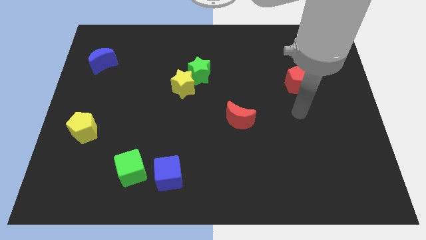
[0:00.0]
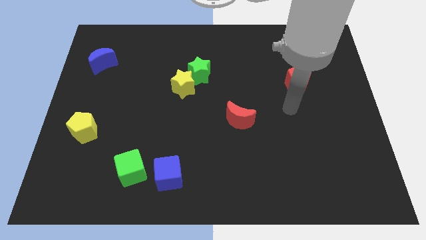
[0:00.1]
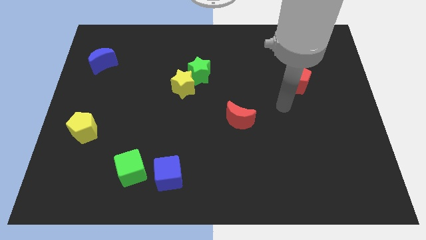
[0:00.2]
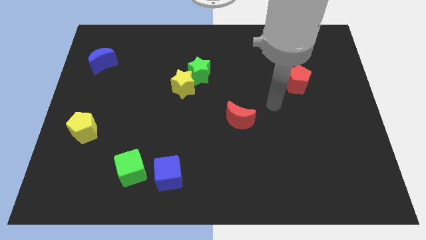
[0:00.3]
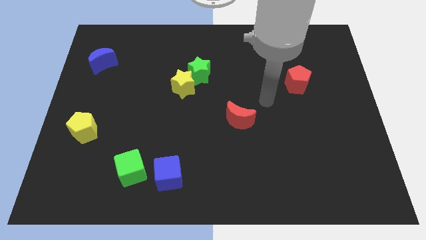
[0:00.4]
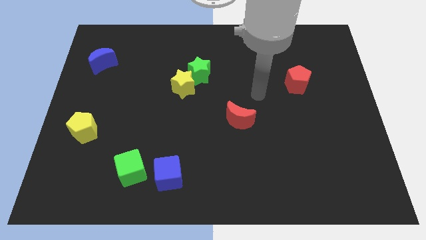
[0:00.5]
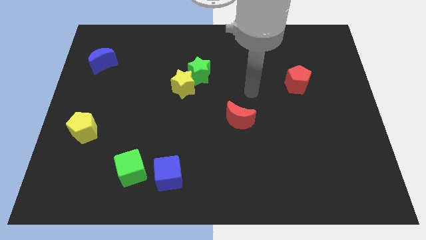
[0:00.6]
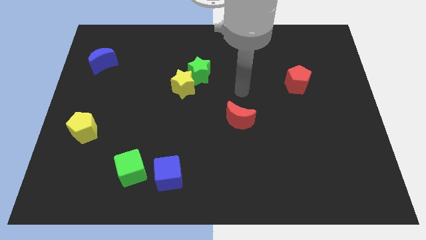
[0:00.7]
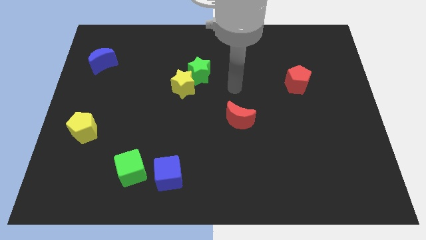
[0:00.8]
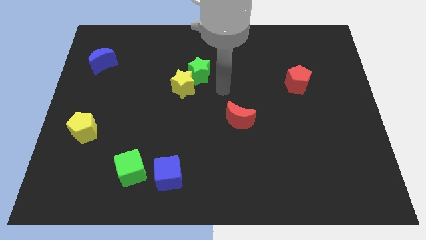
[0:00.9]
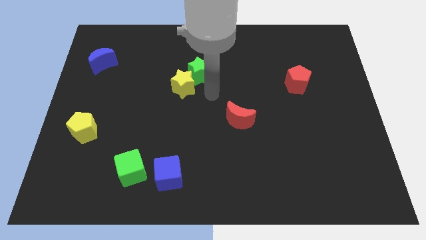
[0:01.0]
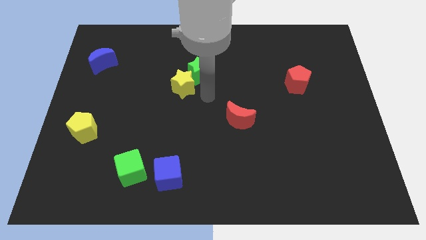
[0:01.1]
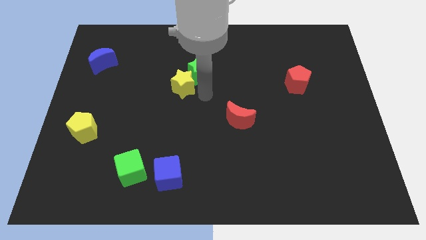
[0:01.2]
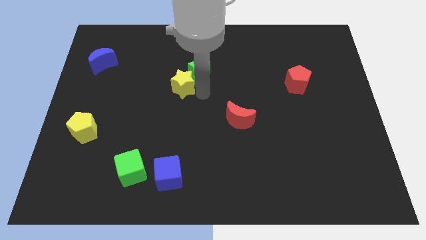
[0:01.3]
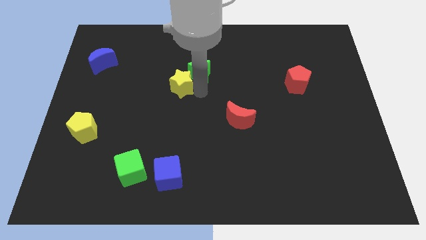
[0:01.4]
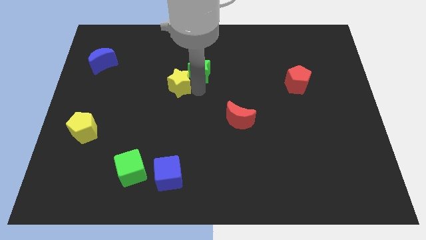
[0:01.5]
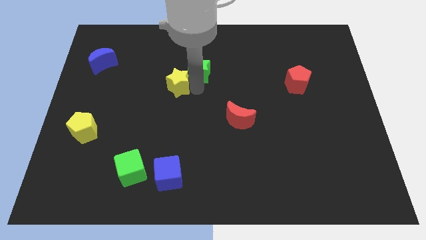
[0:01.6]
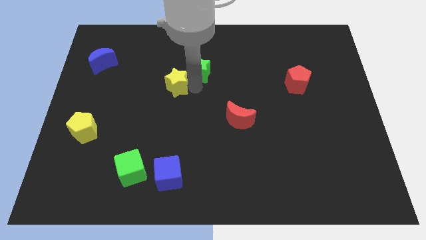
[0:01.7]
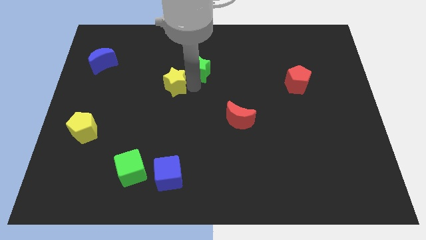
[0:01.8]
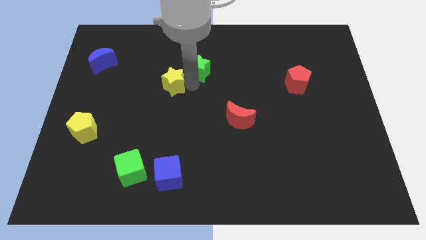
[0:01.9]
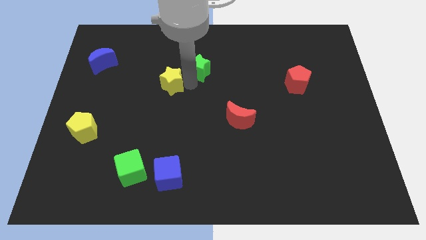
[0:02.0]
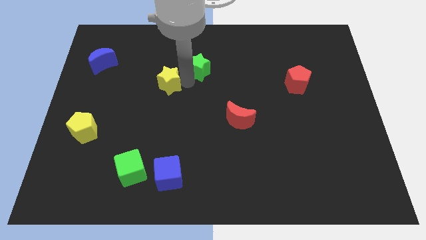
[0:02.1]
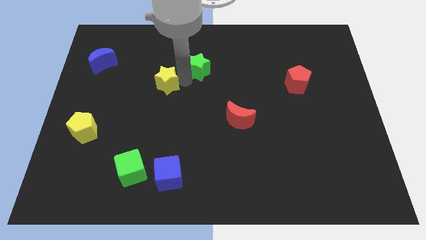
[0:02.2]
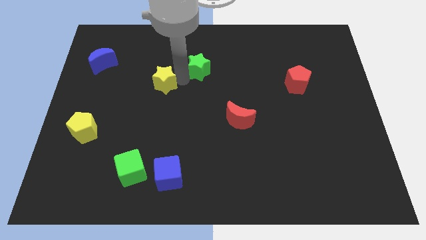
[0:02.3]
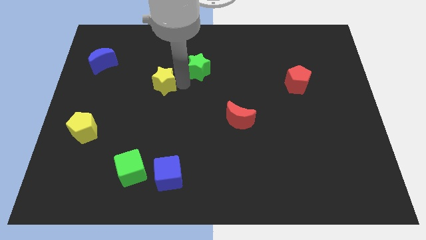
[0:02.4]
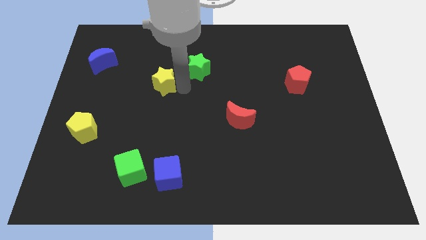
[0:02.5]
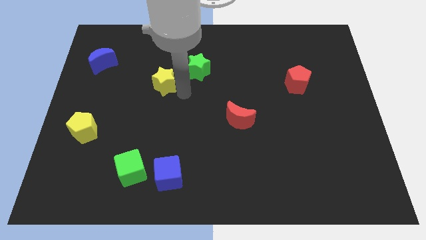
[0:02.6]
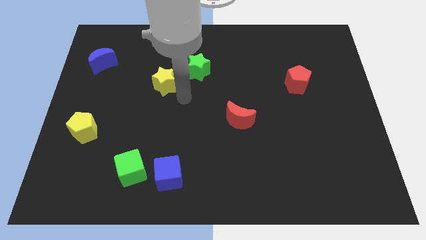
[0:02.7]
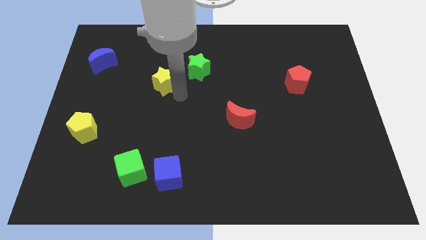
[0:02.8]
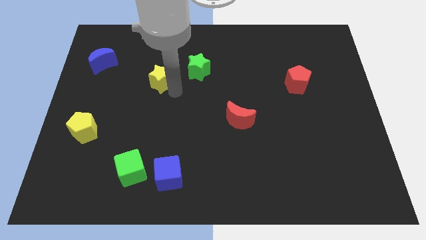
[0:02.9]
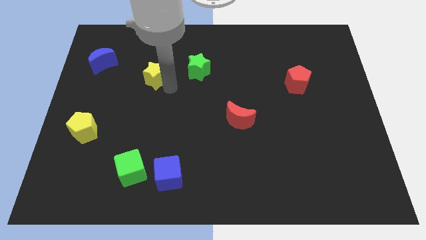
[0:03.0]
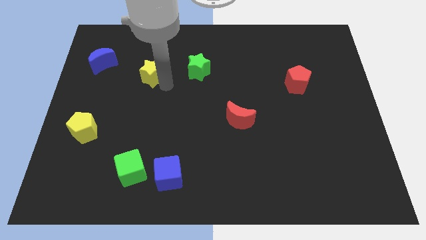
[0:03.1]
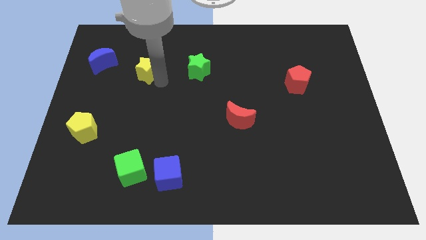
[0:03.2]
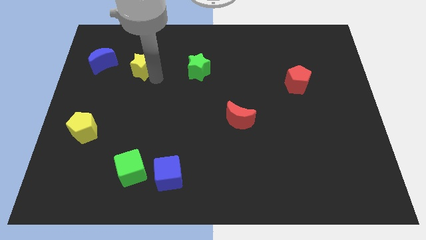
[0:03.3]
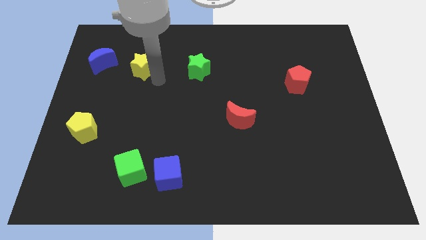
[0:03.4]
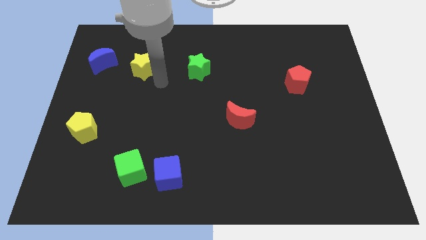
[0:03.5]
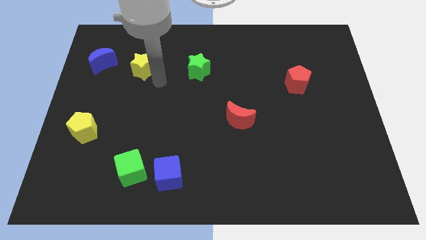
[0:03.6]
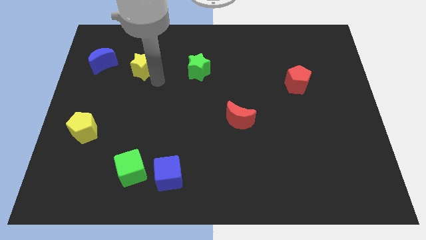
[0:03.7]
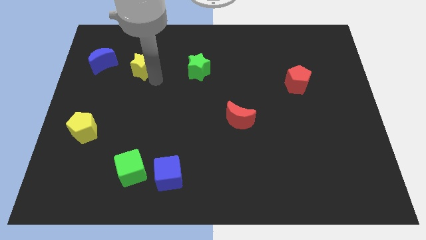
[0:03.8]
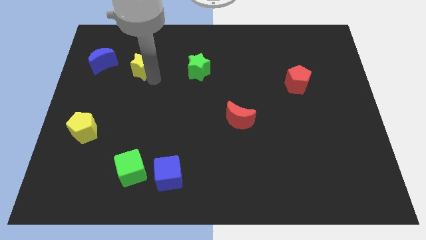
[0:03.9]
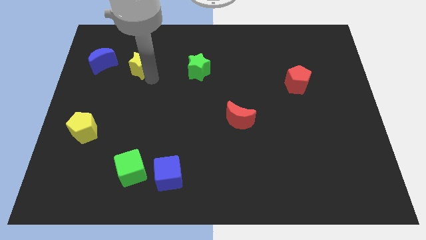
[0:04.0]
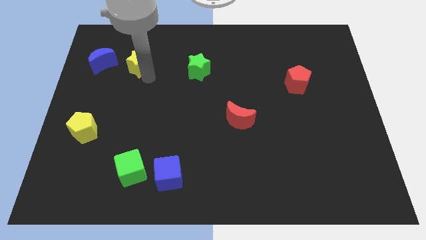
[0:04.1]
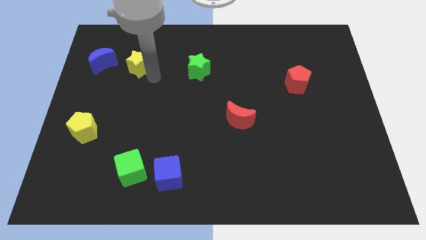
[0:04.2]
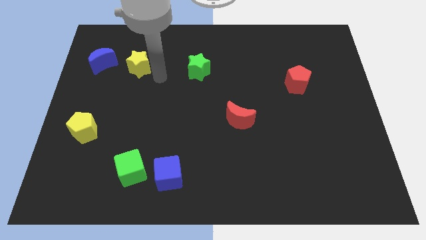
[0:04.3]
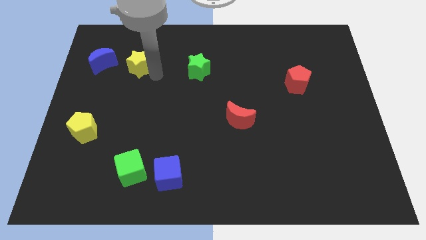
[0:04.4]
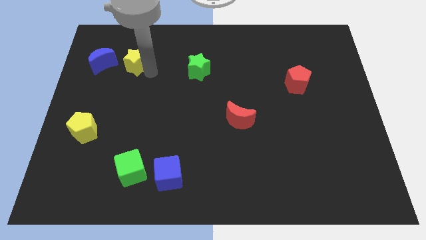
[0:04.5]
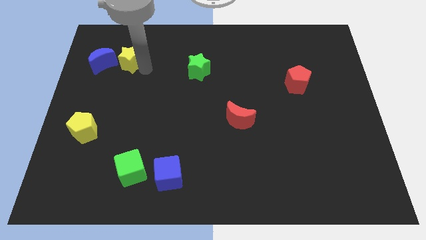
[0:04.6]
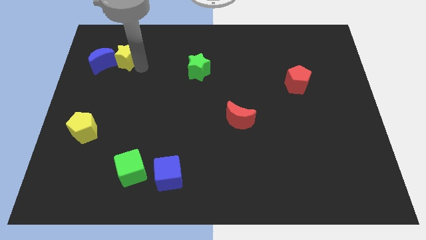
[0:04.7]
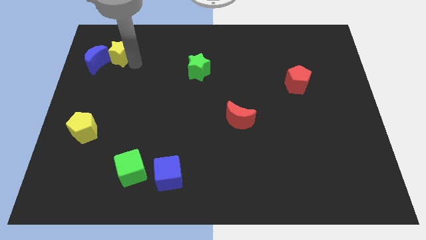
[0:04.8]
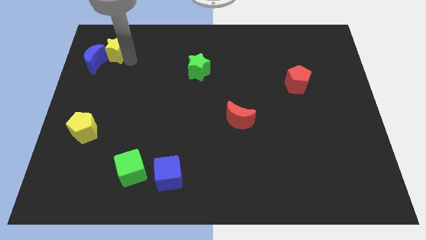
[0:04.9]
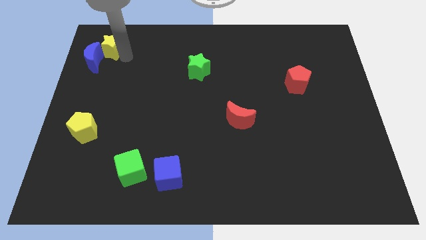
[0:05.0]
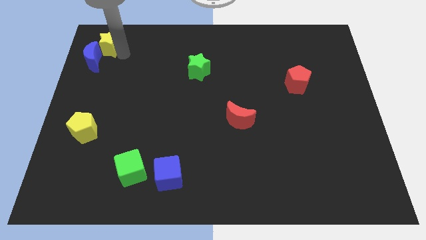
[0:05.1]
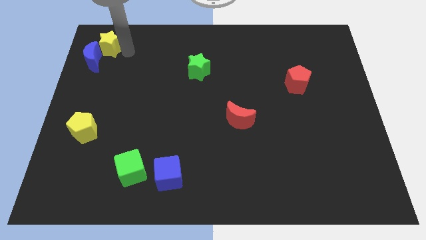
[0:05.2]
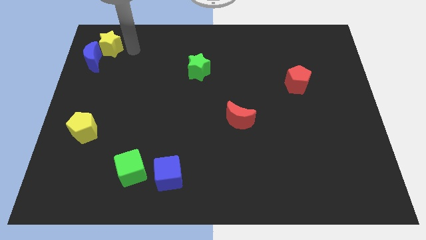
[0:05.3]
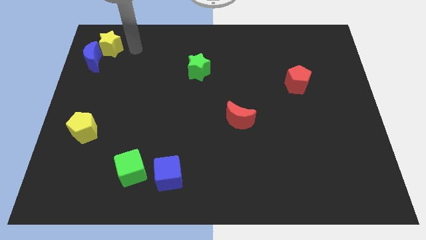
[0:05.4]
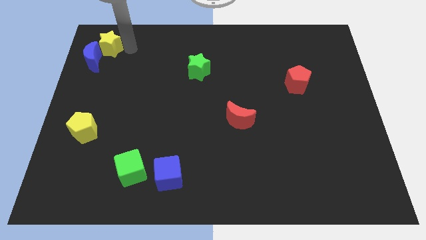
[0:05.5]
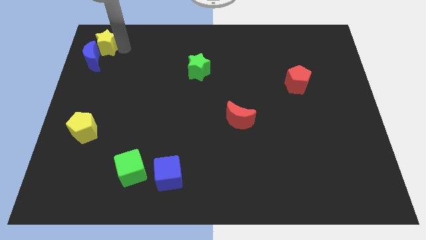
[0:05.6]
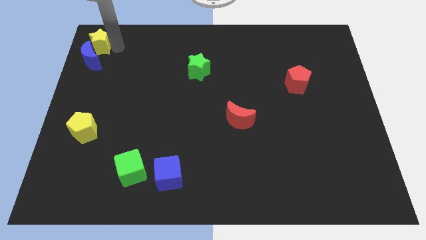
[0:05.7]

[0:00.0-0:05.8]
move the yellow star to the upper left corner
